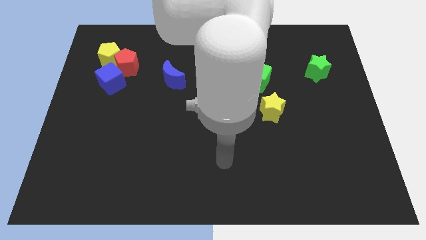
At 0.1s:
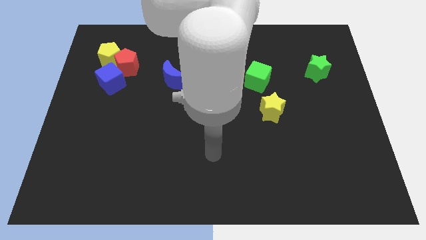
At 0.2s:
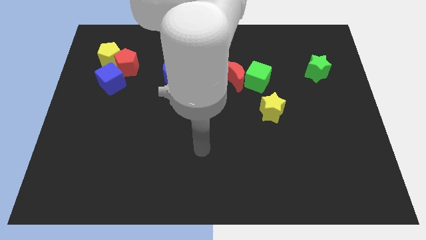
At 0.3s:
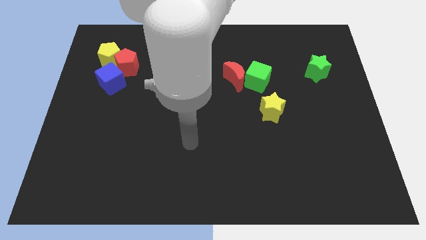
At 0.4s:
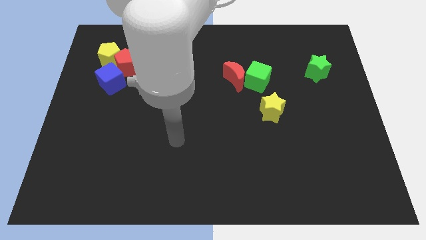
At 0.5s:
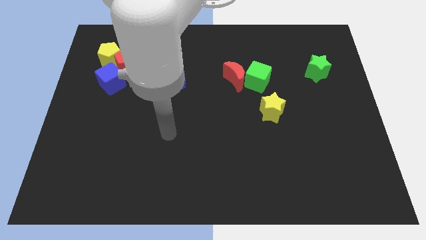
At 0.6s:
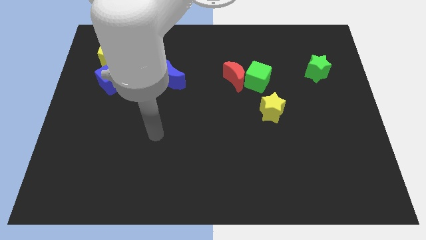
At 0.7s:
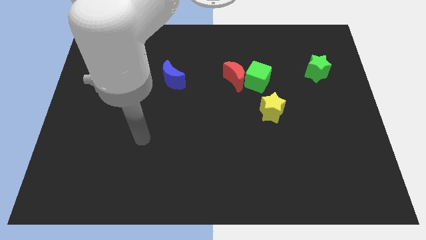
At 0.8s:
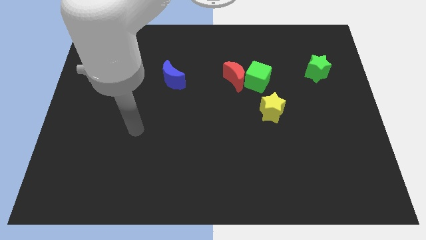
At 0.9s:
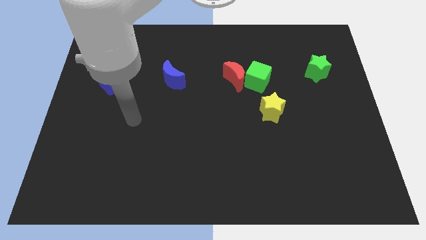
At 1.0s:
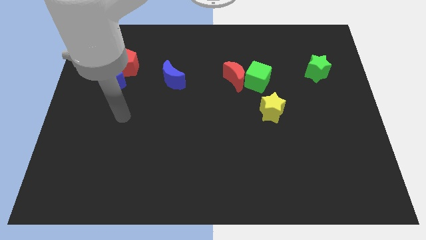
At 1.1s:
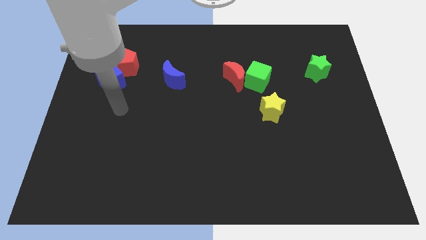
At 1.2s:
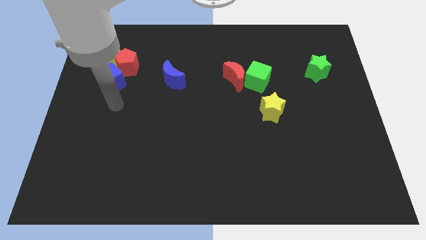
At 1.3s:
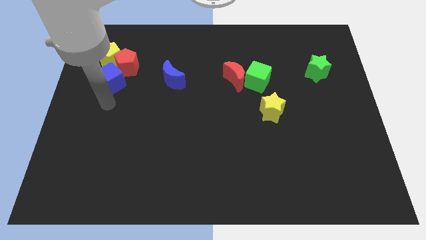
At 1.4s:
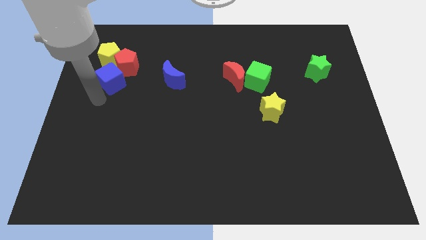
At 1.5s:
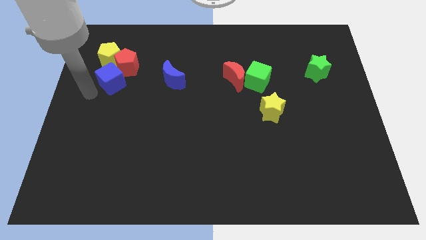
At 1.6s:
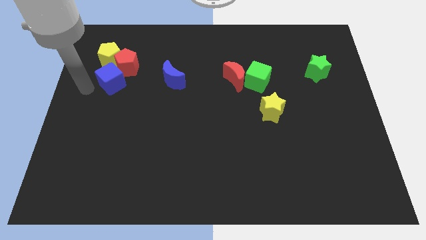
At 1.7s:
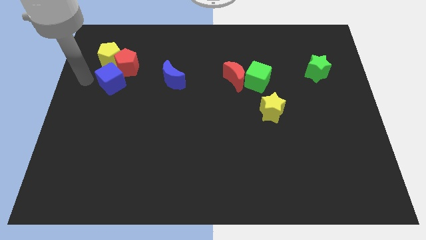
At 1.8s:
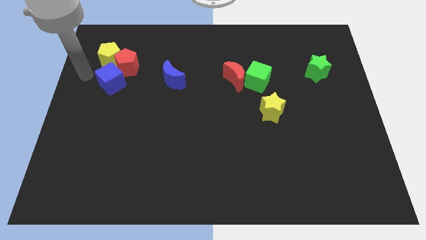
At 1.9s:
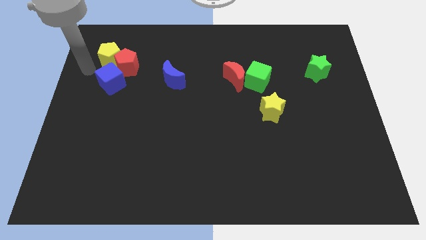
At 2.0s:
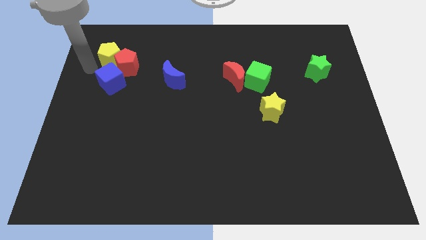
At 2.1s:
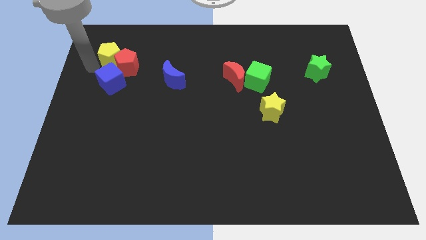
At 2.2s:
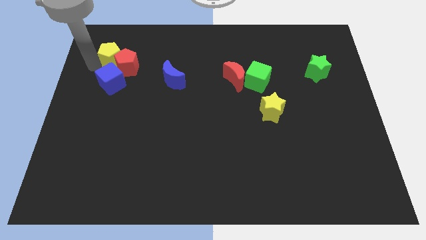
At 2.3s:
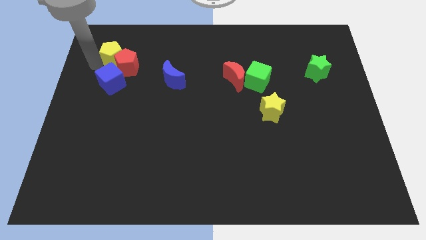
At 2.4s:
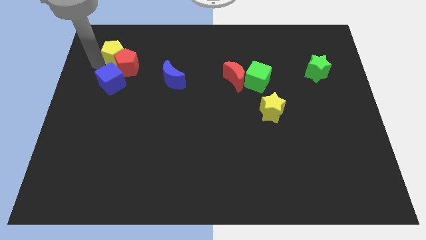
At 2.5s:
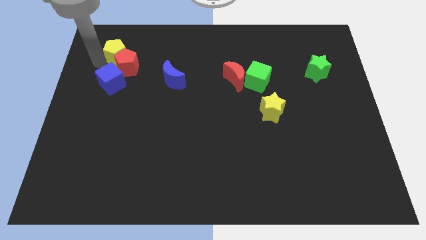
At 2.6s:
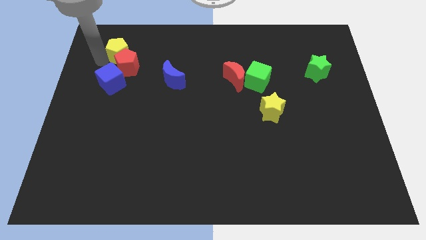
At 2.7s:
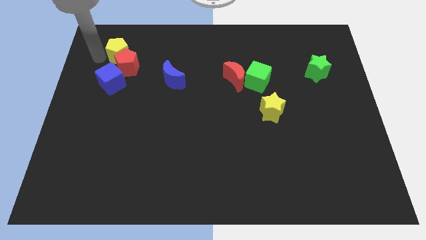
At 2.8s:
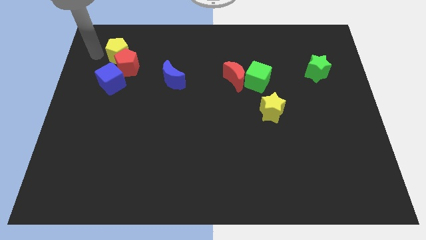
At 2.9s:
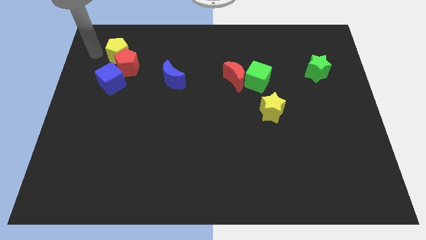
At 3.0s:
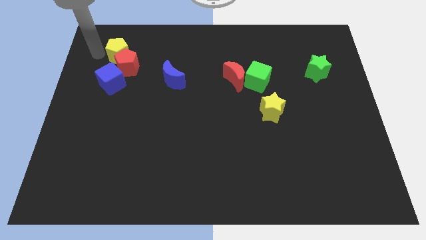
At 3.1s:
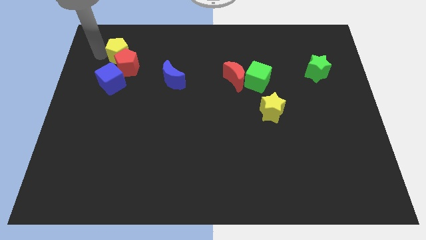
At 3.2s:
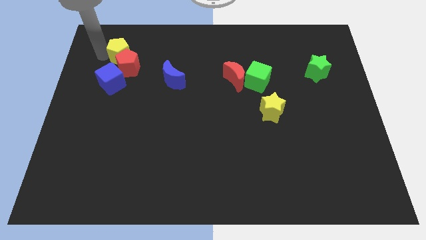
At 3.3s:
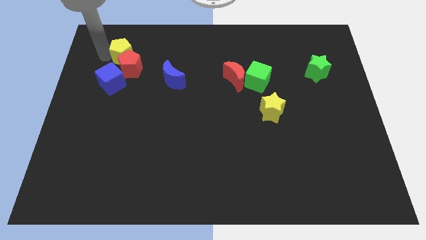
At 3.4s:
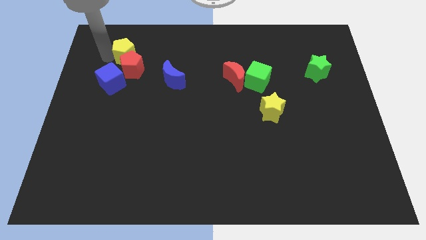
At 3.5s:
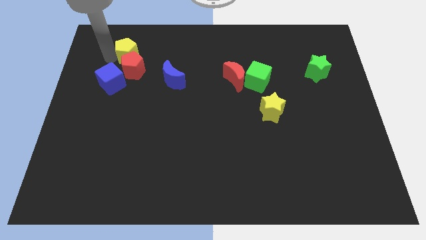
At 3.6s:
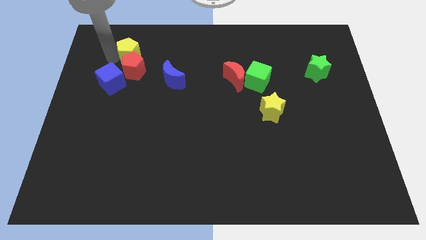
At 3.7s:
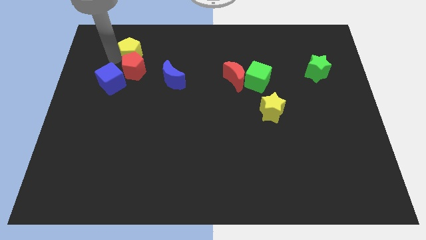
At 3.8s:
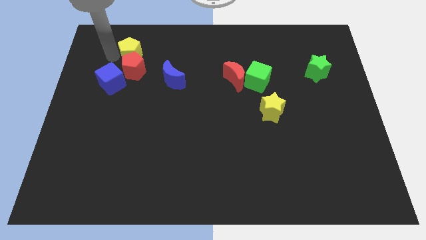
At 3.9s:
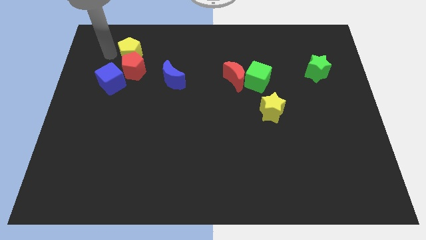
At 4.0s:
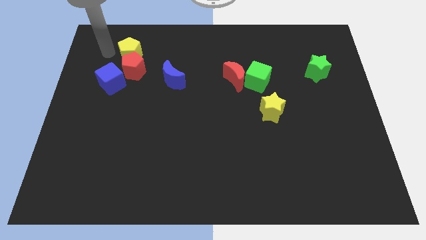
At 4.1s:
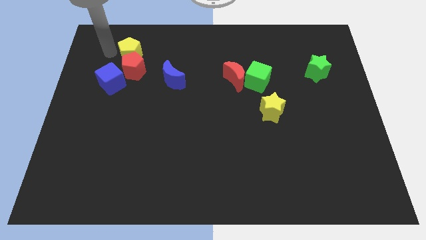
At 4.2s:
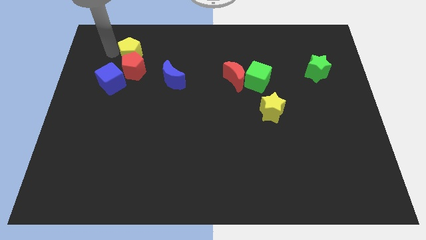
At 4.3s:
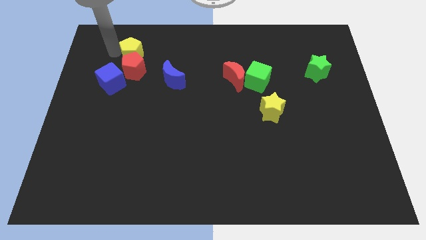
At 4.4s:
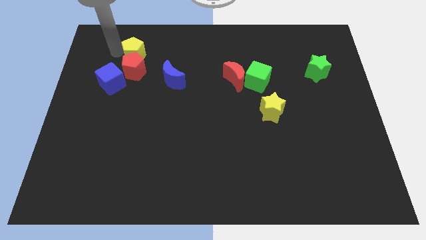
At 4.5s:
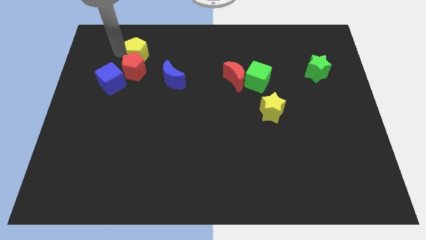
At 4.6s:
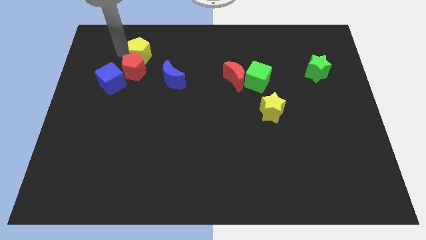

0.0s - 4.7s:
slightly move the yellow pentagon to the right

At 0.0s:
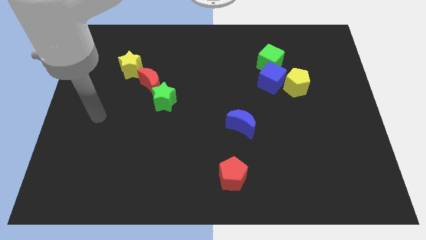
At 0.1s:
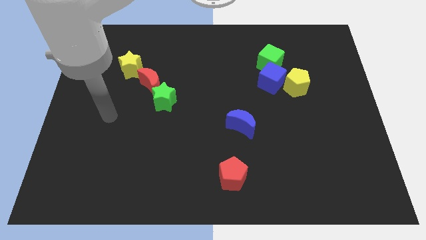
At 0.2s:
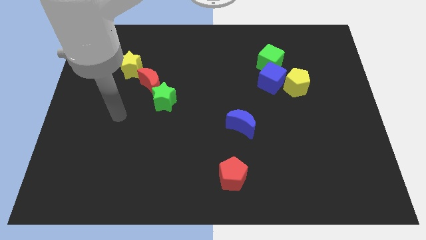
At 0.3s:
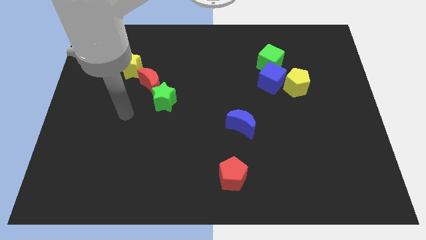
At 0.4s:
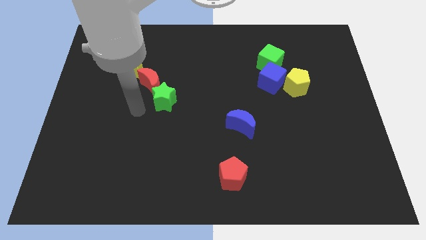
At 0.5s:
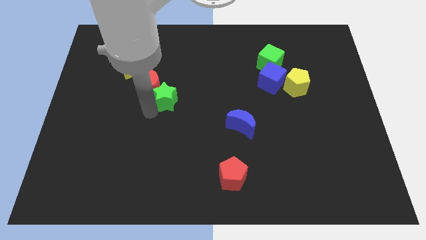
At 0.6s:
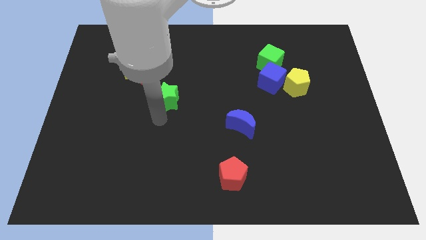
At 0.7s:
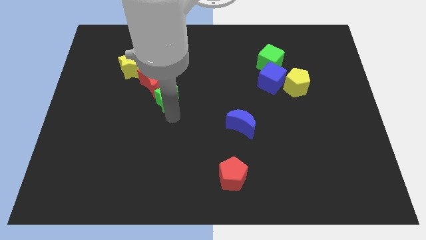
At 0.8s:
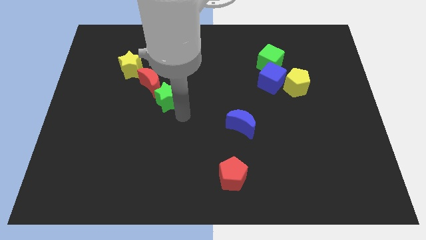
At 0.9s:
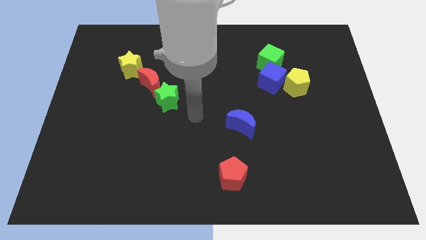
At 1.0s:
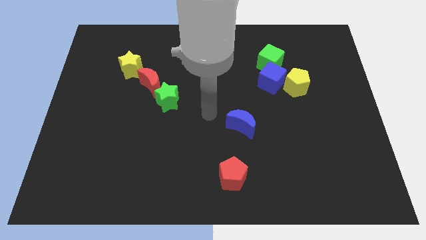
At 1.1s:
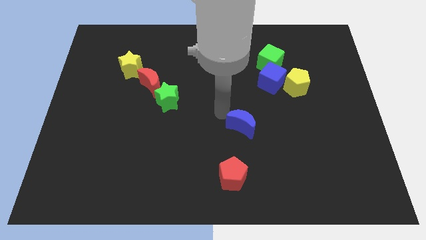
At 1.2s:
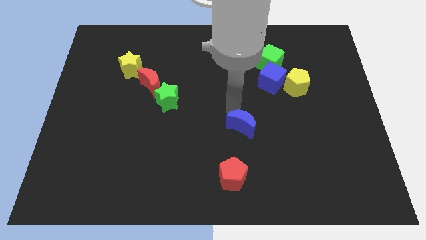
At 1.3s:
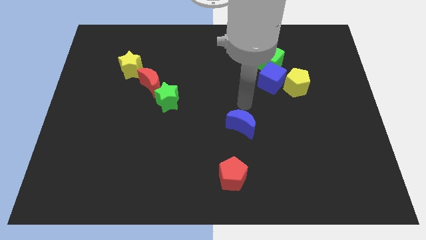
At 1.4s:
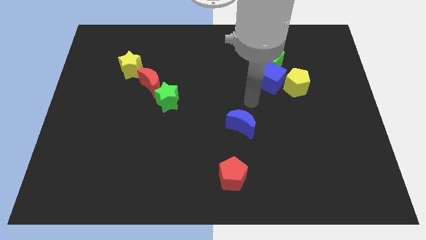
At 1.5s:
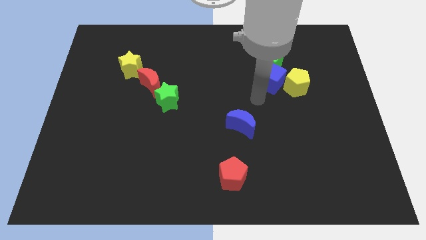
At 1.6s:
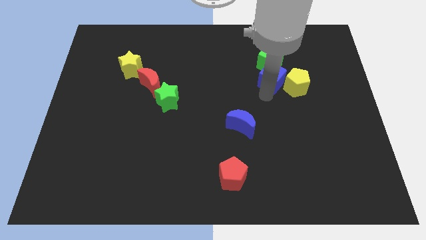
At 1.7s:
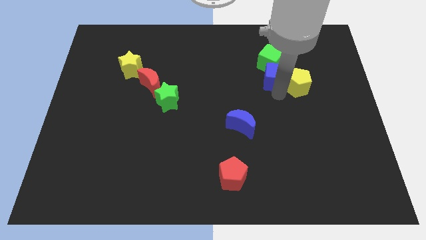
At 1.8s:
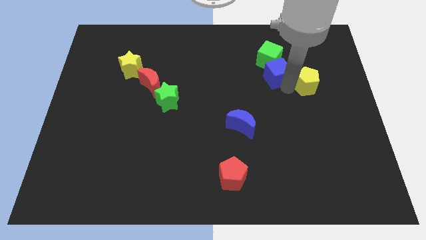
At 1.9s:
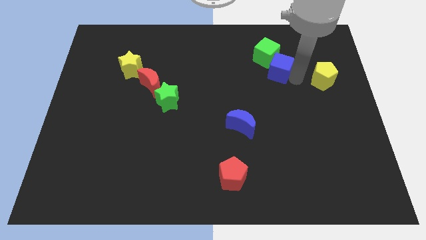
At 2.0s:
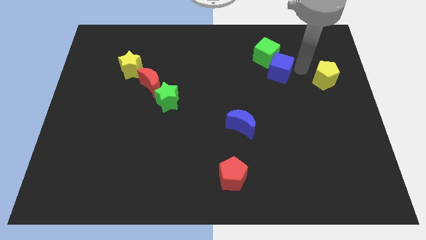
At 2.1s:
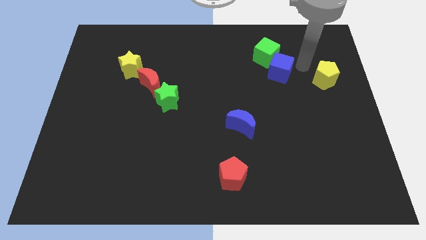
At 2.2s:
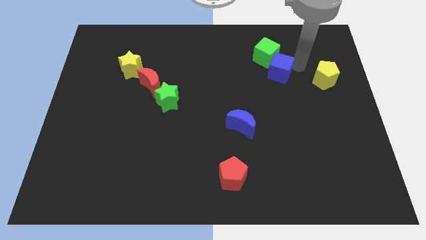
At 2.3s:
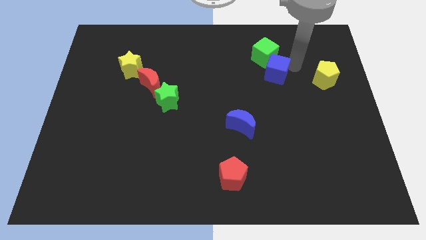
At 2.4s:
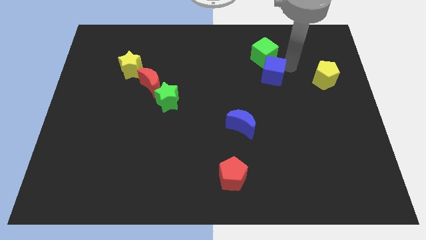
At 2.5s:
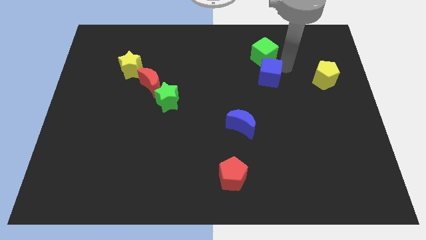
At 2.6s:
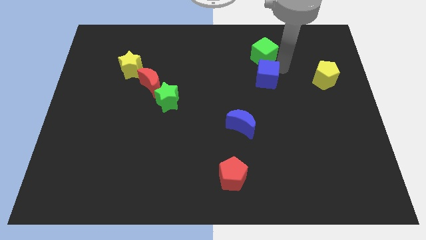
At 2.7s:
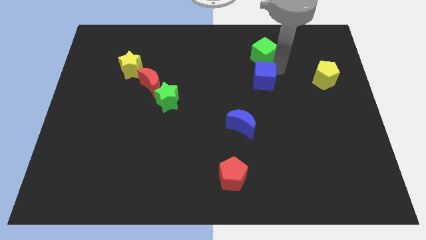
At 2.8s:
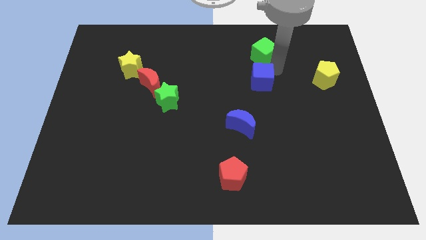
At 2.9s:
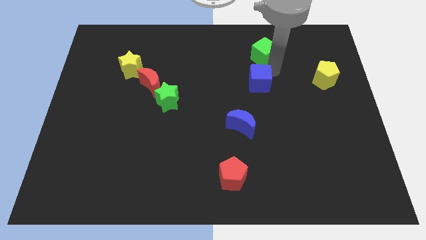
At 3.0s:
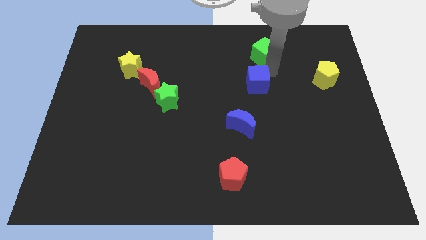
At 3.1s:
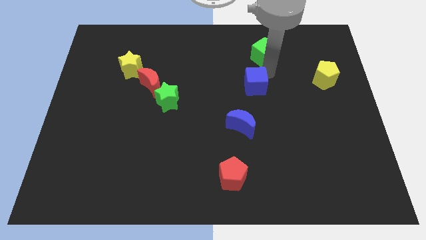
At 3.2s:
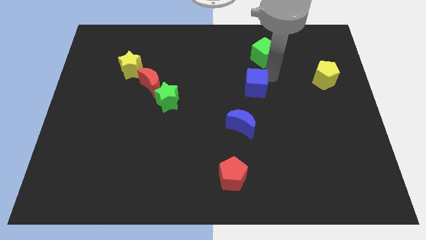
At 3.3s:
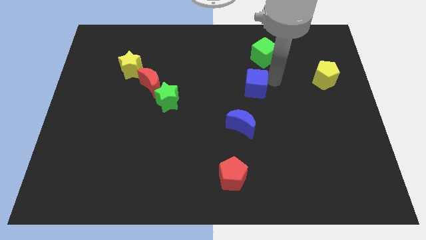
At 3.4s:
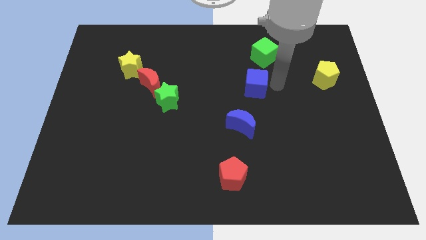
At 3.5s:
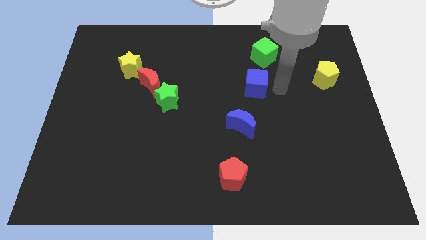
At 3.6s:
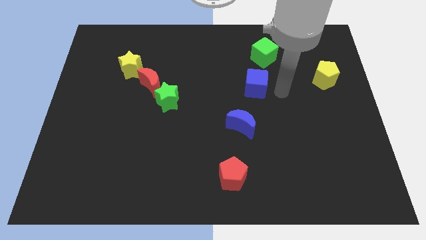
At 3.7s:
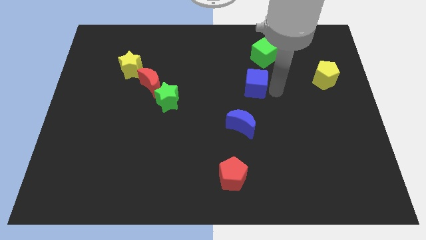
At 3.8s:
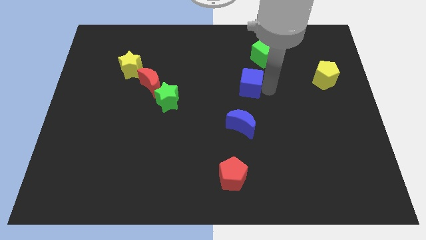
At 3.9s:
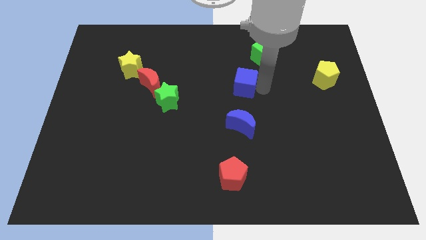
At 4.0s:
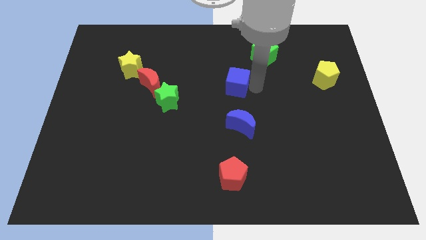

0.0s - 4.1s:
slightly move the blue cube left
